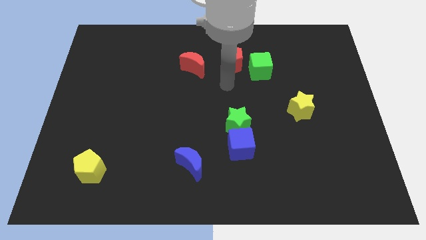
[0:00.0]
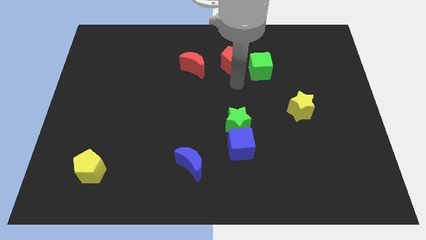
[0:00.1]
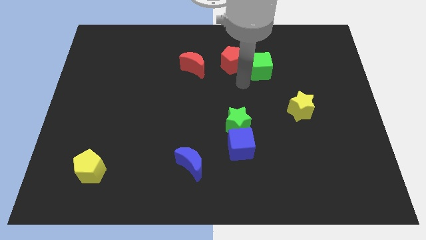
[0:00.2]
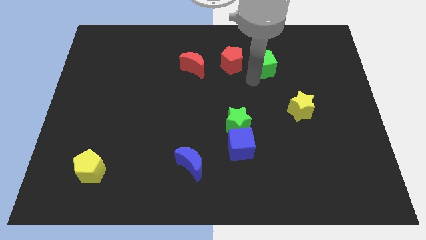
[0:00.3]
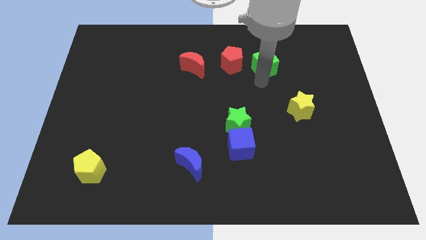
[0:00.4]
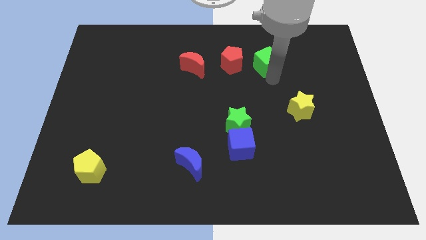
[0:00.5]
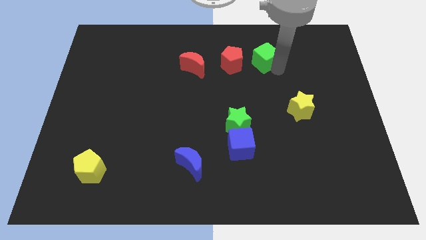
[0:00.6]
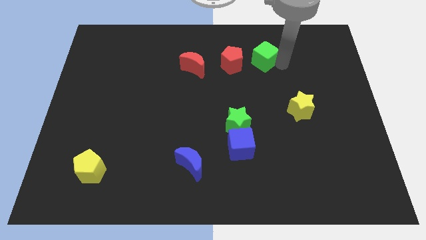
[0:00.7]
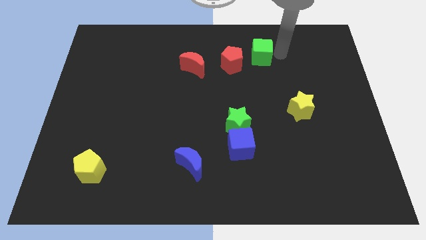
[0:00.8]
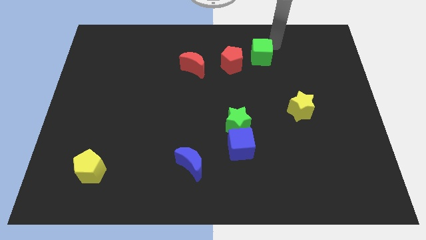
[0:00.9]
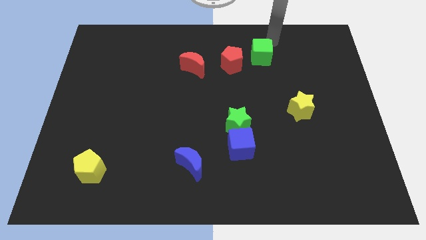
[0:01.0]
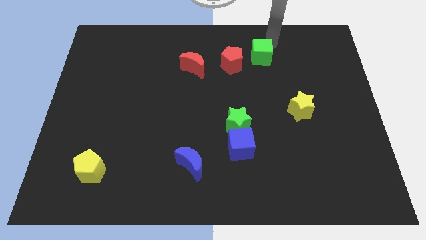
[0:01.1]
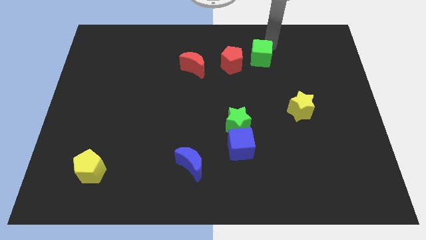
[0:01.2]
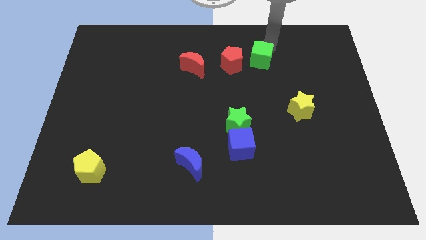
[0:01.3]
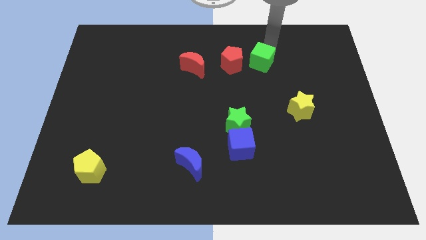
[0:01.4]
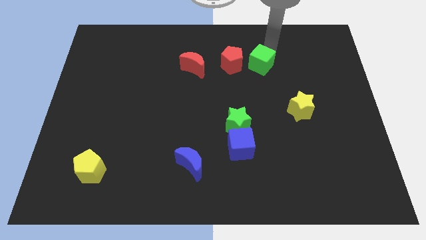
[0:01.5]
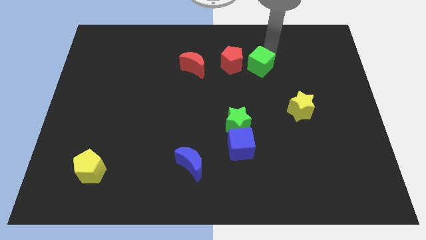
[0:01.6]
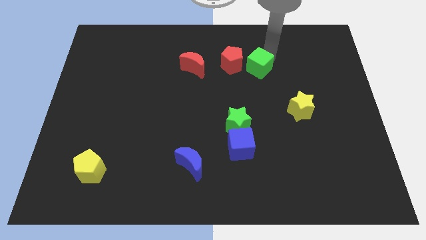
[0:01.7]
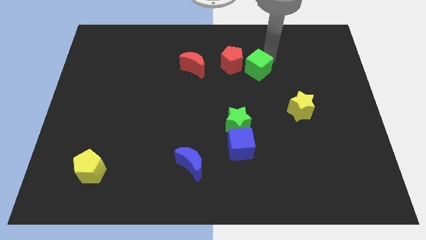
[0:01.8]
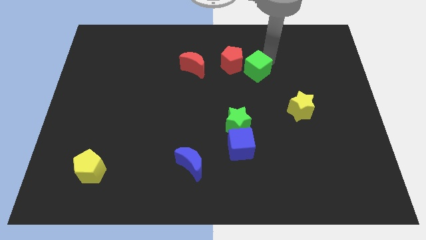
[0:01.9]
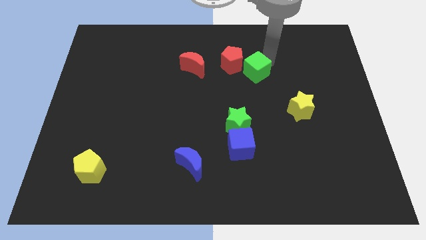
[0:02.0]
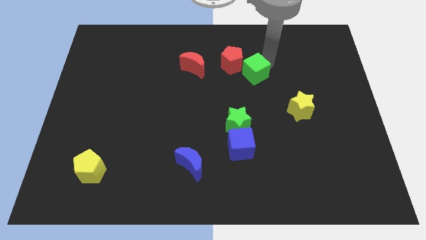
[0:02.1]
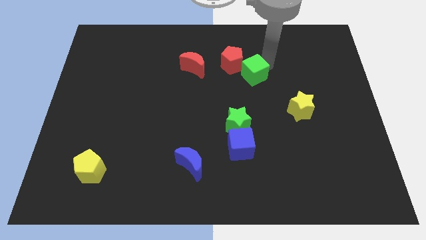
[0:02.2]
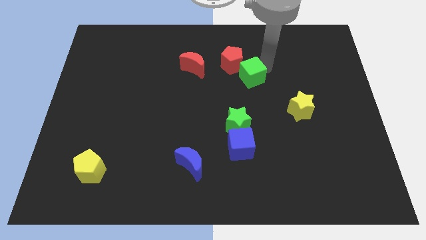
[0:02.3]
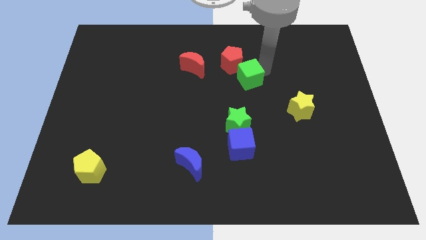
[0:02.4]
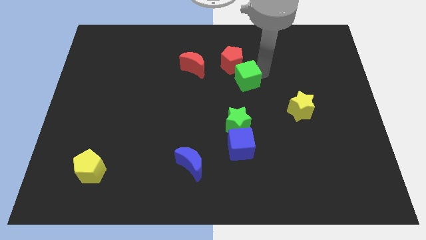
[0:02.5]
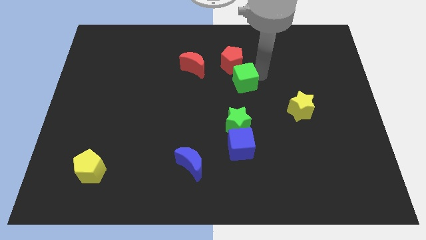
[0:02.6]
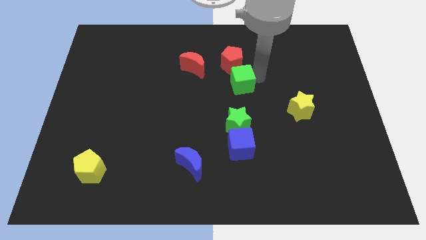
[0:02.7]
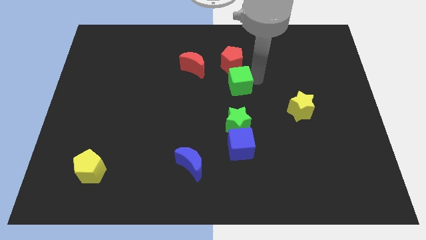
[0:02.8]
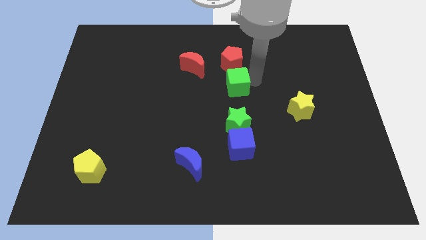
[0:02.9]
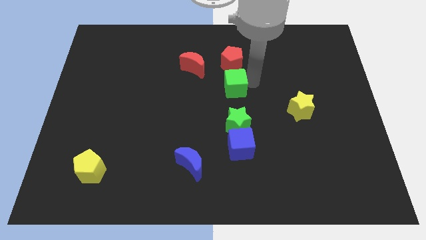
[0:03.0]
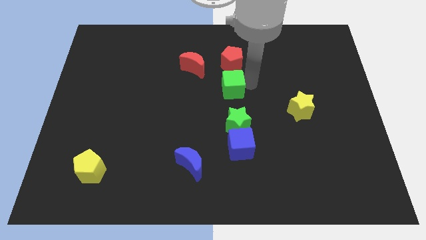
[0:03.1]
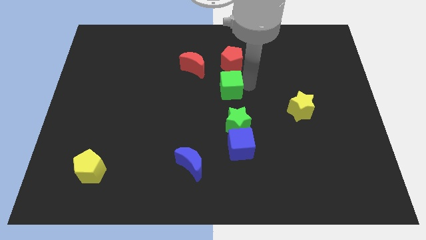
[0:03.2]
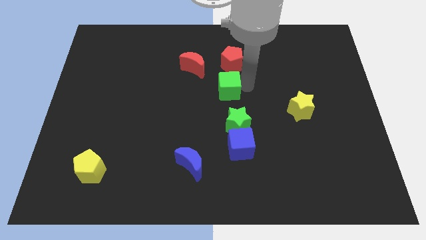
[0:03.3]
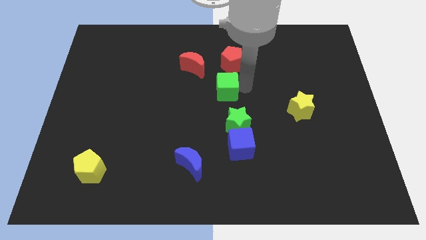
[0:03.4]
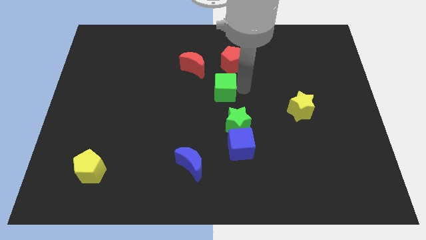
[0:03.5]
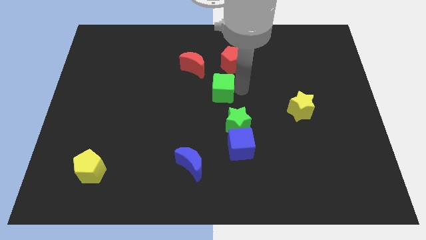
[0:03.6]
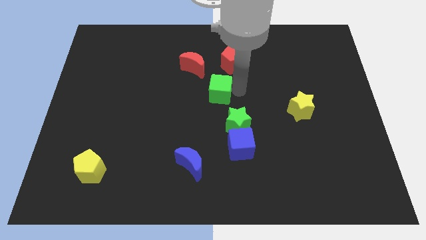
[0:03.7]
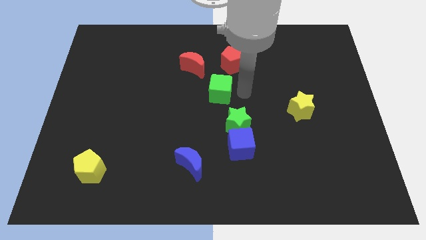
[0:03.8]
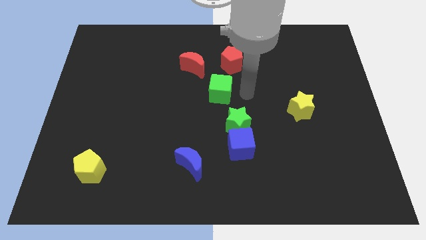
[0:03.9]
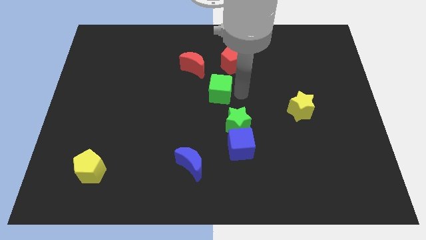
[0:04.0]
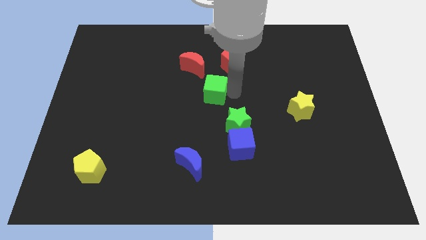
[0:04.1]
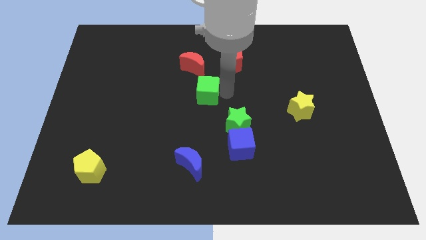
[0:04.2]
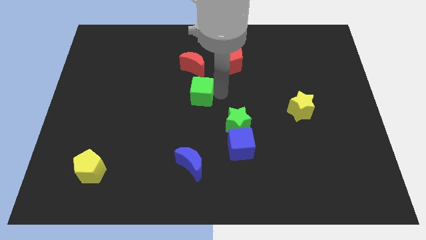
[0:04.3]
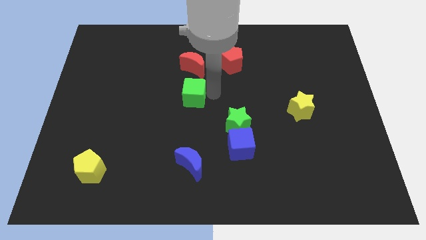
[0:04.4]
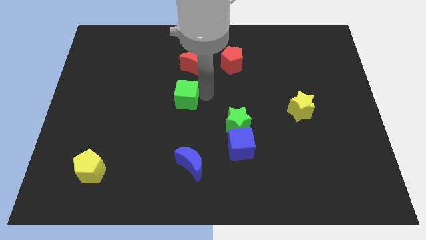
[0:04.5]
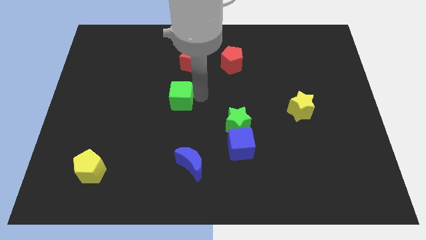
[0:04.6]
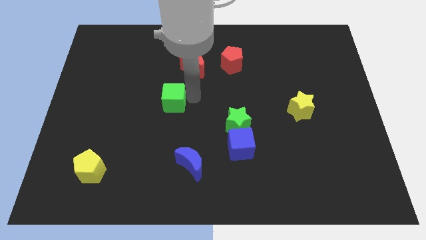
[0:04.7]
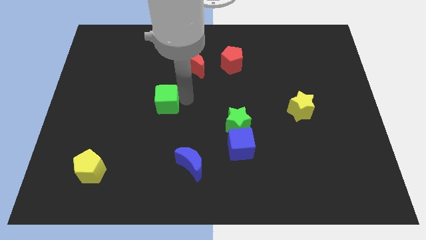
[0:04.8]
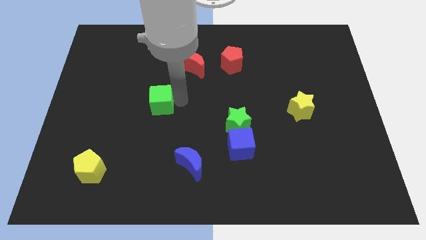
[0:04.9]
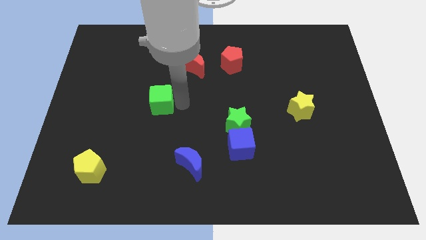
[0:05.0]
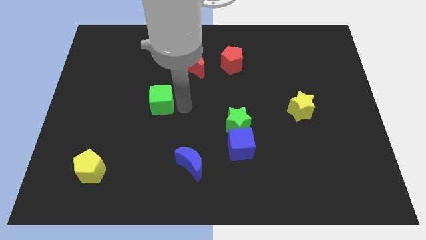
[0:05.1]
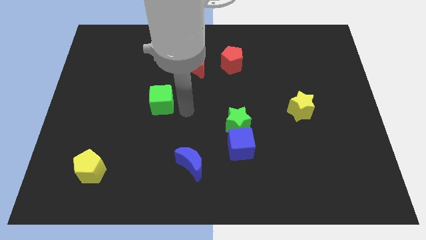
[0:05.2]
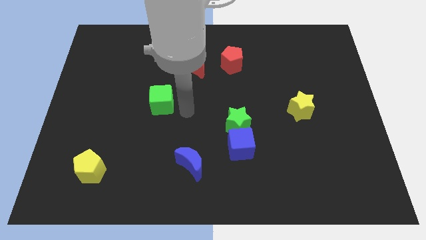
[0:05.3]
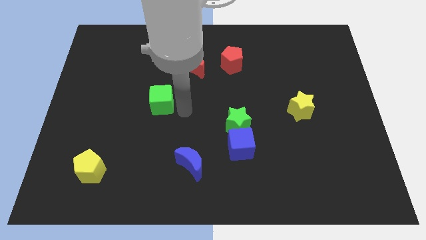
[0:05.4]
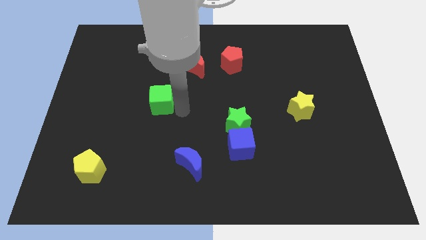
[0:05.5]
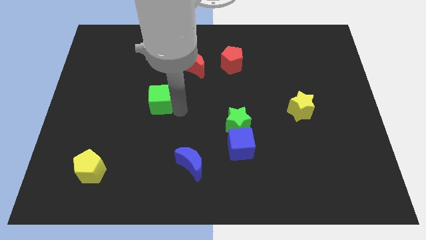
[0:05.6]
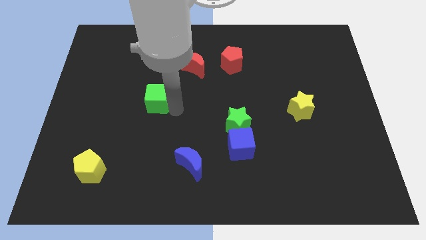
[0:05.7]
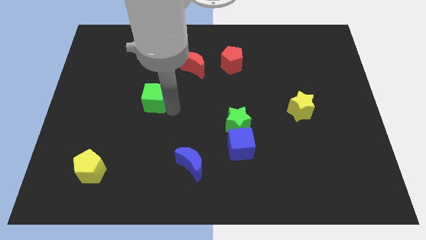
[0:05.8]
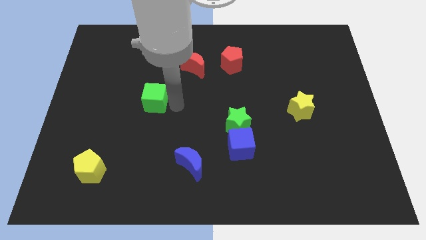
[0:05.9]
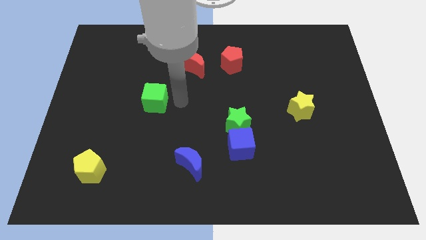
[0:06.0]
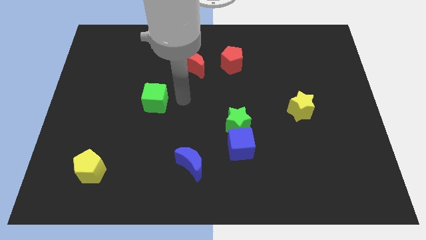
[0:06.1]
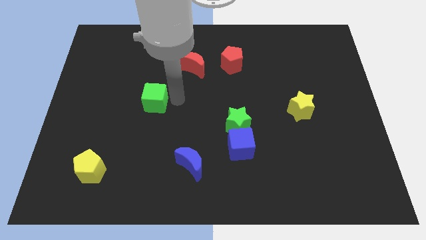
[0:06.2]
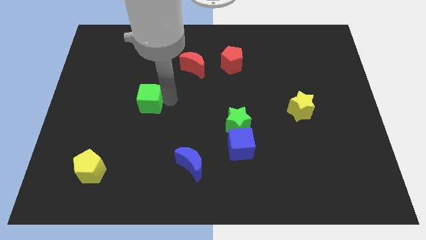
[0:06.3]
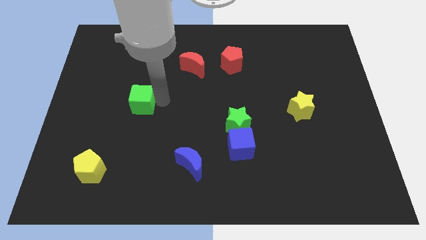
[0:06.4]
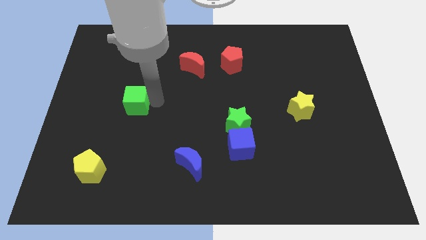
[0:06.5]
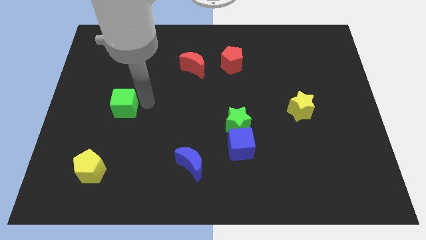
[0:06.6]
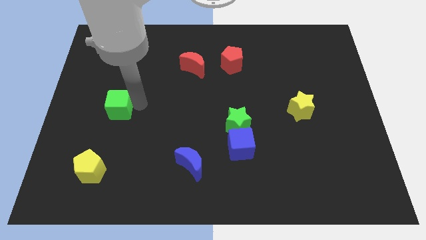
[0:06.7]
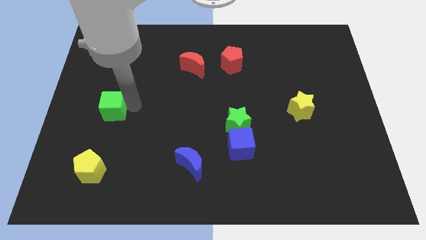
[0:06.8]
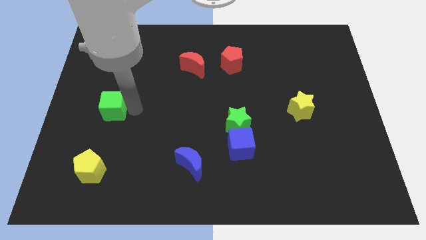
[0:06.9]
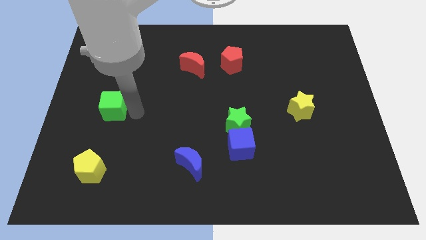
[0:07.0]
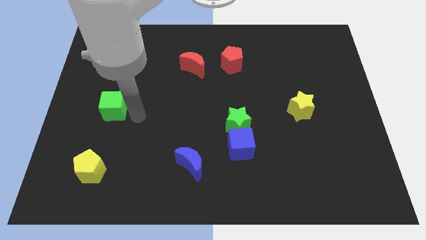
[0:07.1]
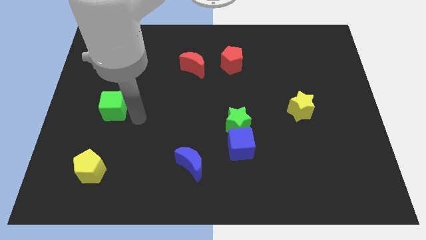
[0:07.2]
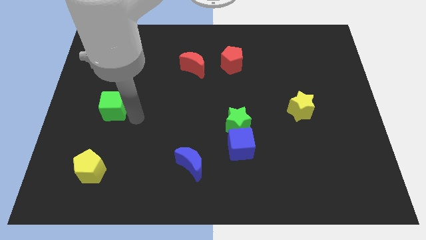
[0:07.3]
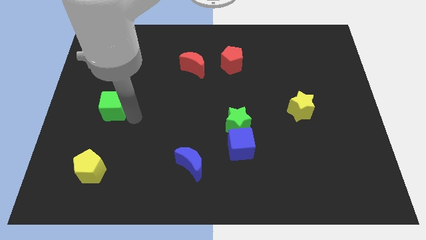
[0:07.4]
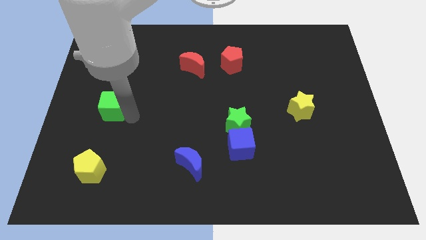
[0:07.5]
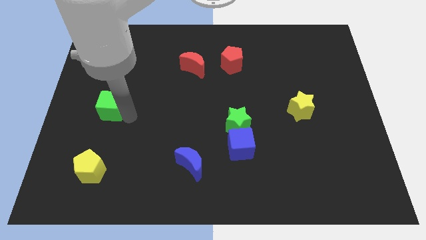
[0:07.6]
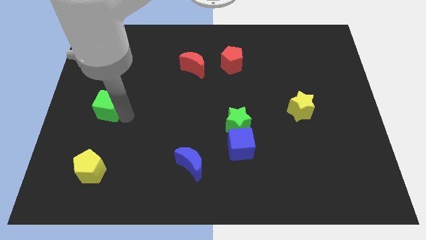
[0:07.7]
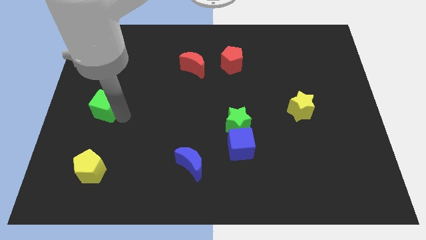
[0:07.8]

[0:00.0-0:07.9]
put the green cube to the center left
